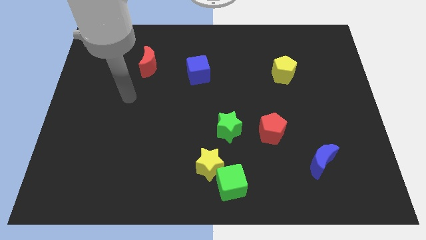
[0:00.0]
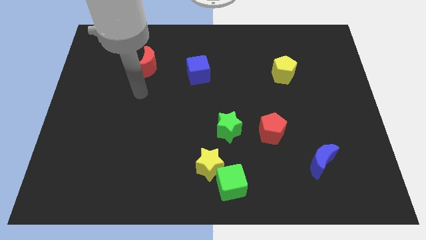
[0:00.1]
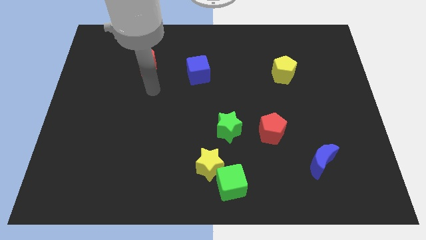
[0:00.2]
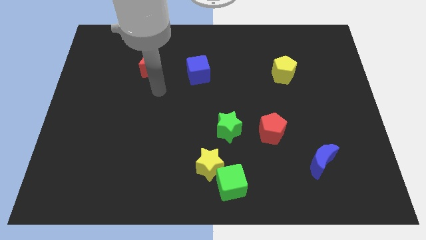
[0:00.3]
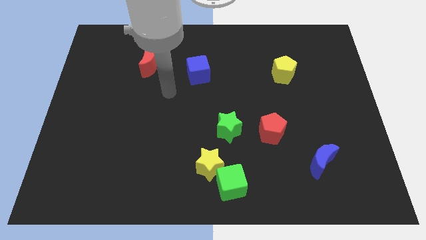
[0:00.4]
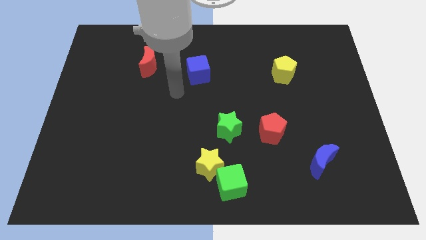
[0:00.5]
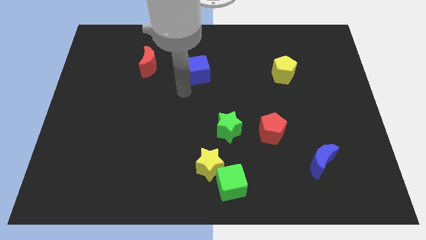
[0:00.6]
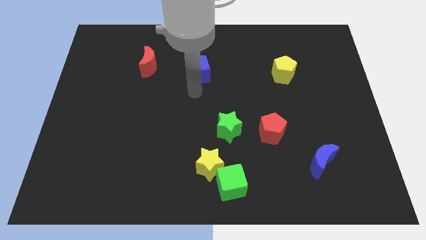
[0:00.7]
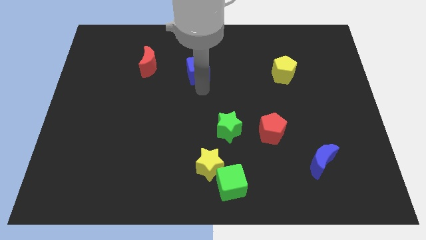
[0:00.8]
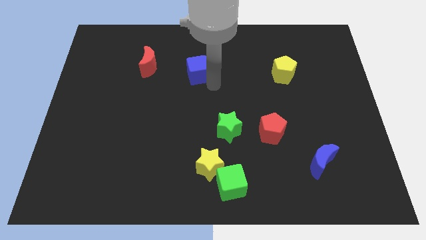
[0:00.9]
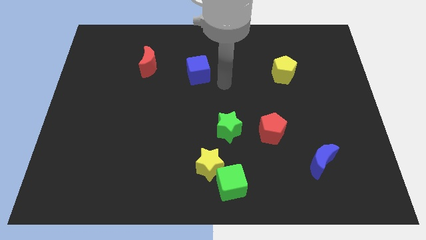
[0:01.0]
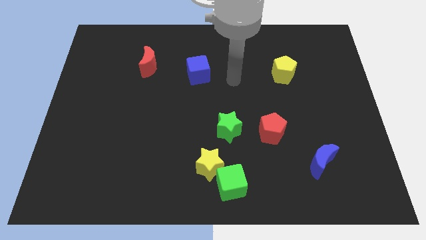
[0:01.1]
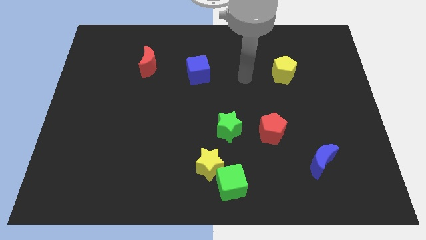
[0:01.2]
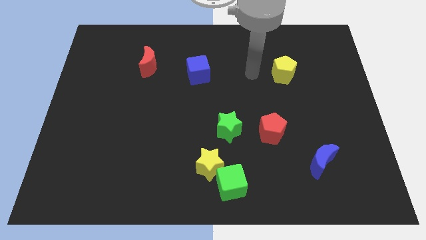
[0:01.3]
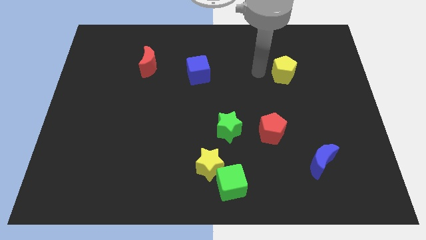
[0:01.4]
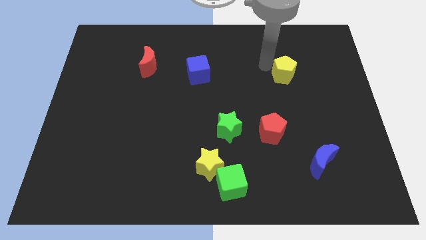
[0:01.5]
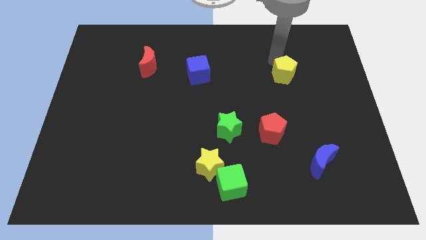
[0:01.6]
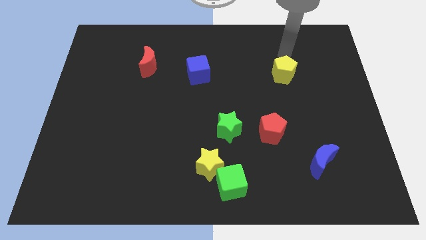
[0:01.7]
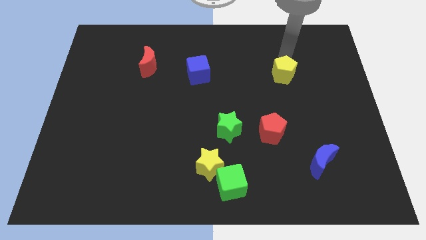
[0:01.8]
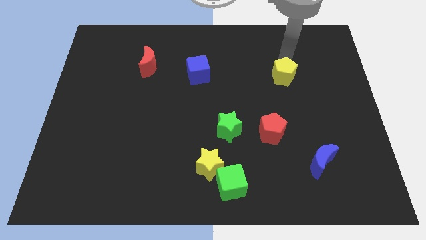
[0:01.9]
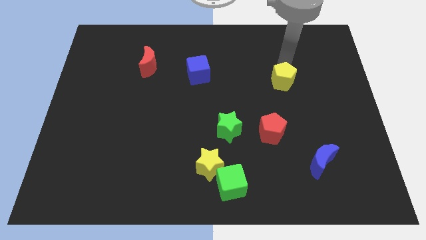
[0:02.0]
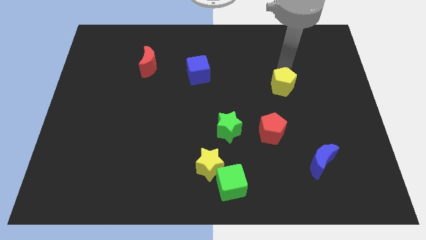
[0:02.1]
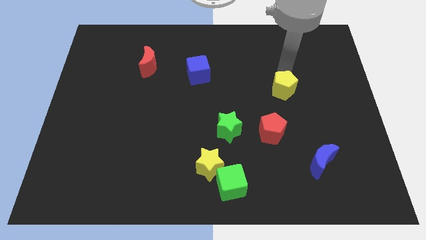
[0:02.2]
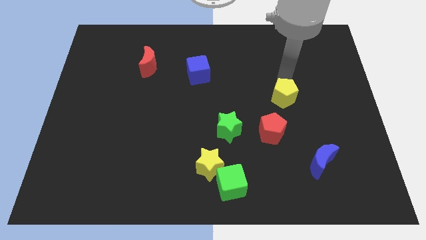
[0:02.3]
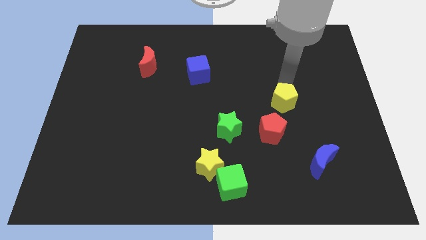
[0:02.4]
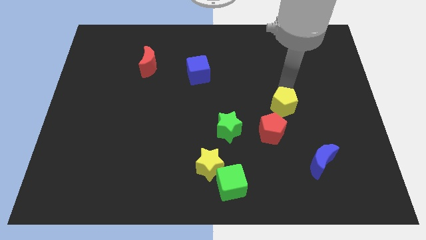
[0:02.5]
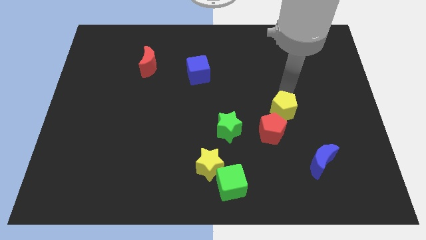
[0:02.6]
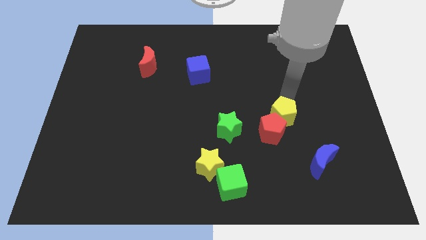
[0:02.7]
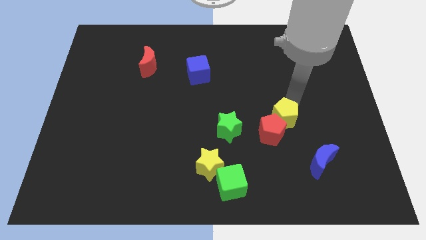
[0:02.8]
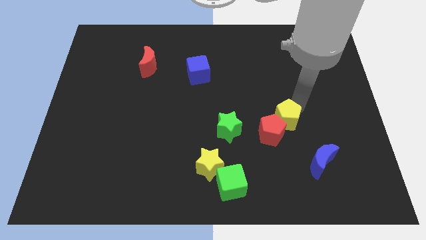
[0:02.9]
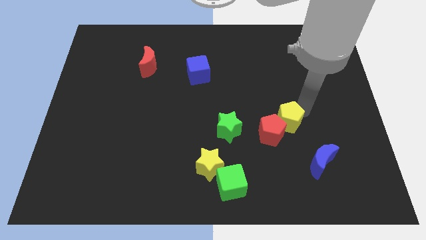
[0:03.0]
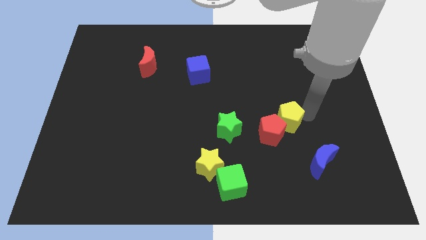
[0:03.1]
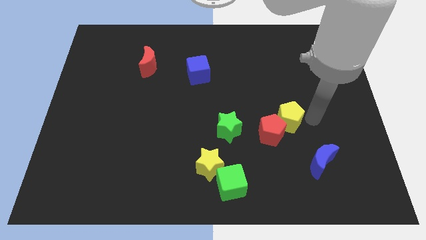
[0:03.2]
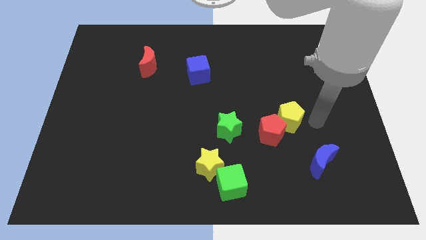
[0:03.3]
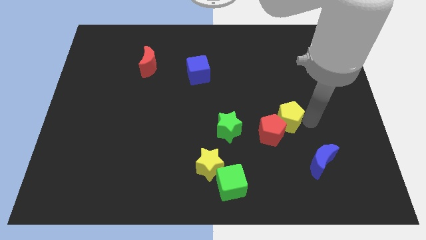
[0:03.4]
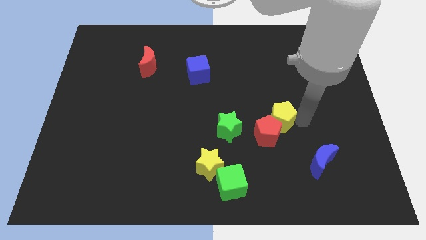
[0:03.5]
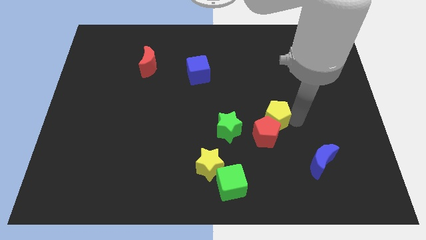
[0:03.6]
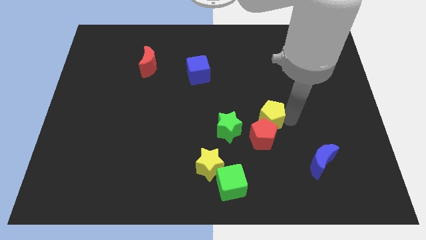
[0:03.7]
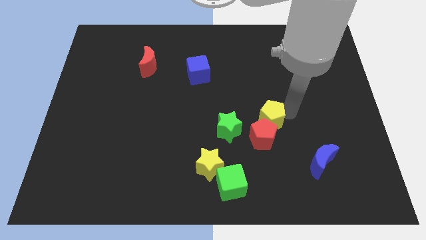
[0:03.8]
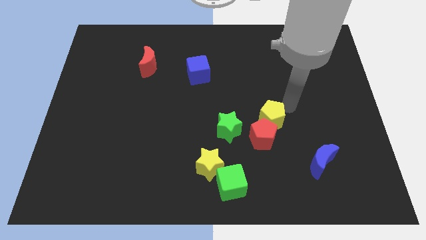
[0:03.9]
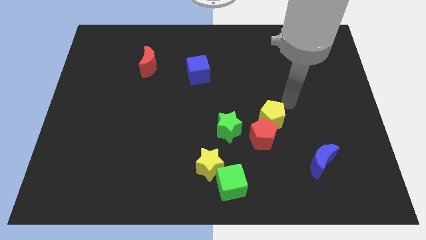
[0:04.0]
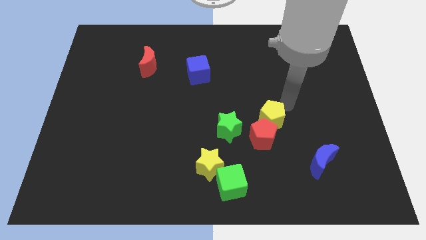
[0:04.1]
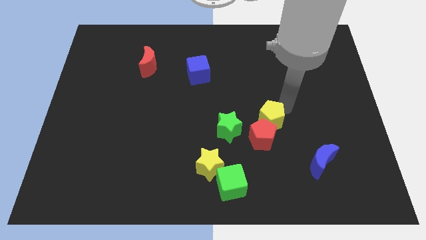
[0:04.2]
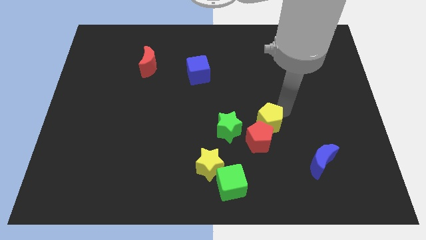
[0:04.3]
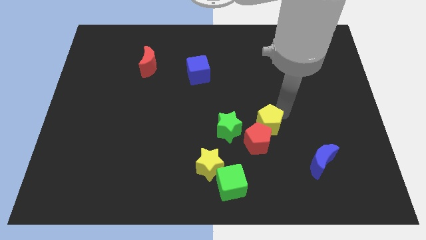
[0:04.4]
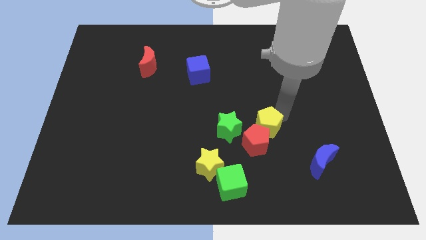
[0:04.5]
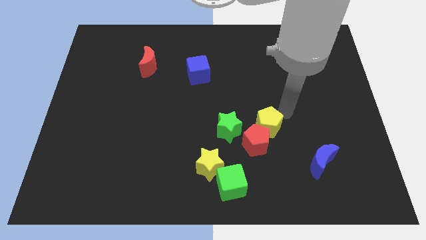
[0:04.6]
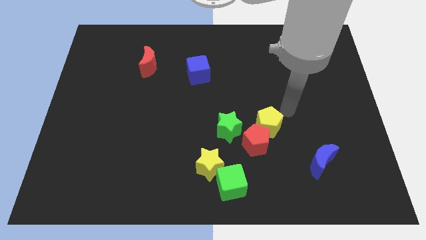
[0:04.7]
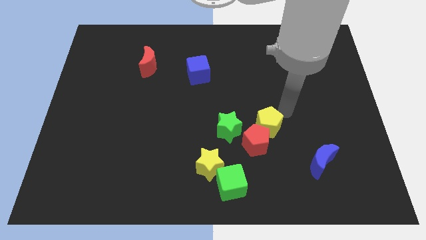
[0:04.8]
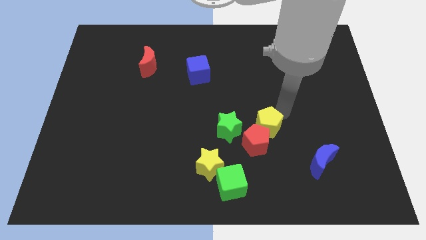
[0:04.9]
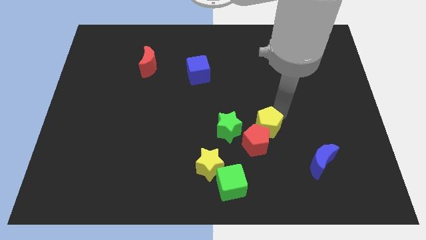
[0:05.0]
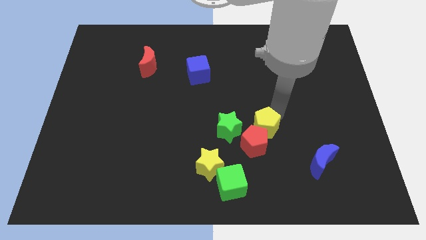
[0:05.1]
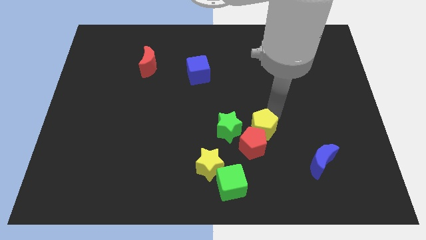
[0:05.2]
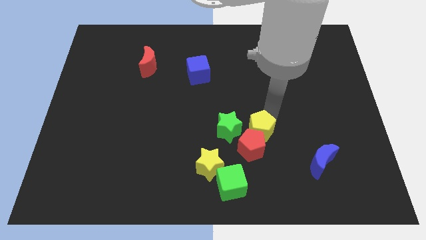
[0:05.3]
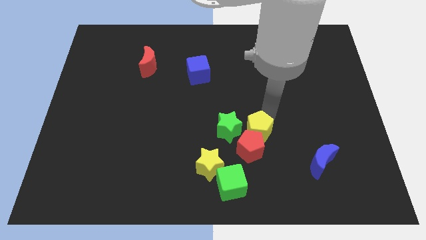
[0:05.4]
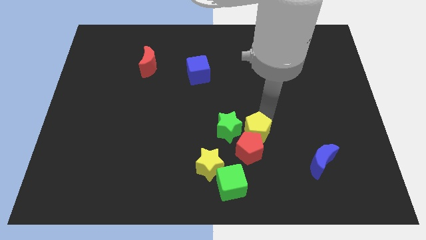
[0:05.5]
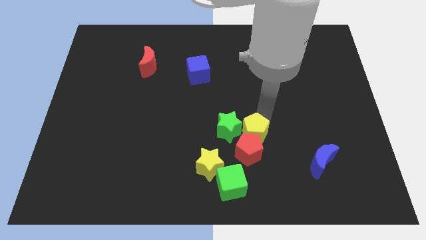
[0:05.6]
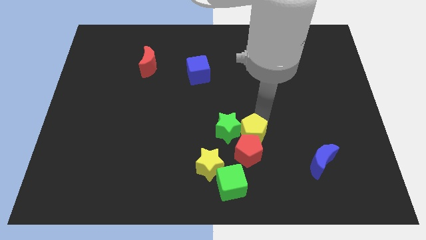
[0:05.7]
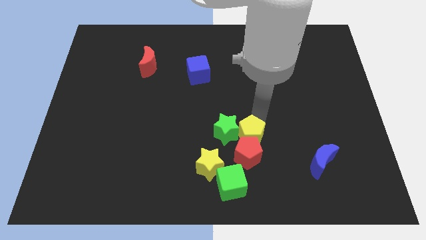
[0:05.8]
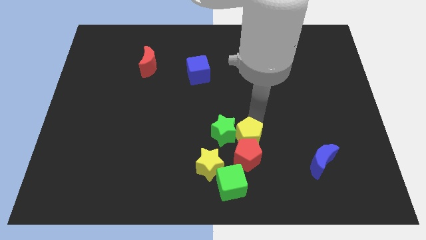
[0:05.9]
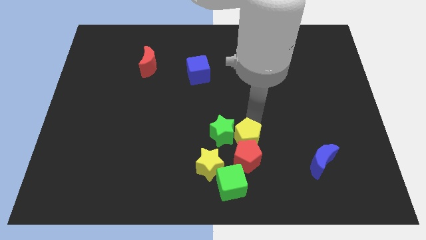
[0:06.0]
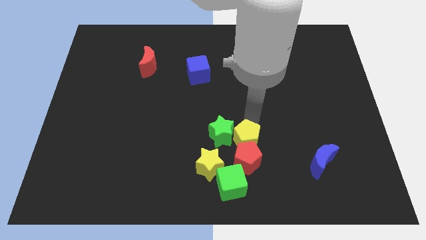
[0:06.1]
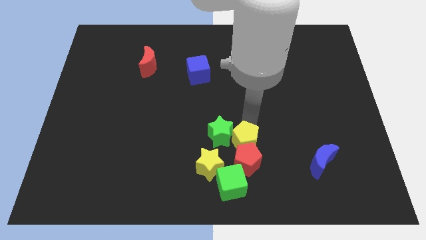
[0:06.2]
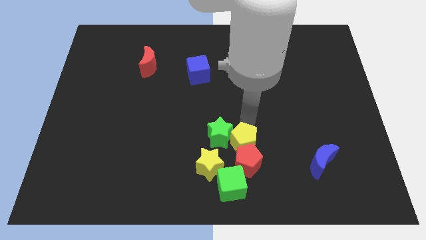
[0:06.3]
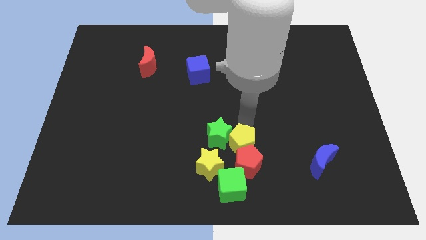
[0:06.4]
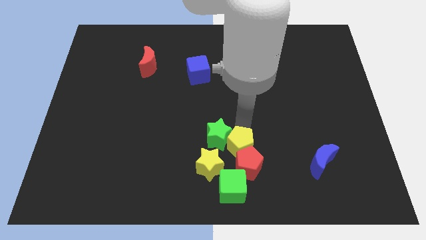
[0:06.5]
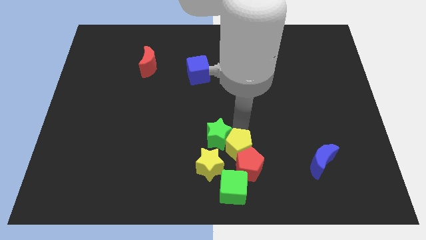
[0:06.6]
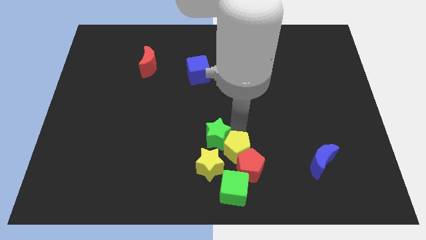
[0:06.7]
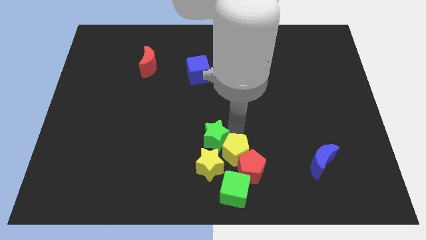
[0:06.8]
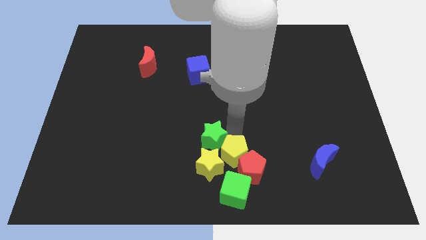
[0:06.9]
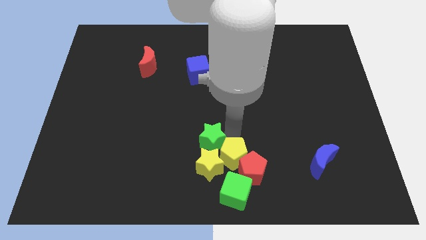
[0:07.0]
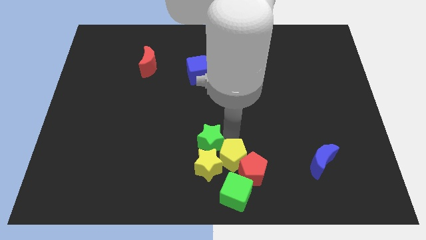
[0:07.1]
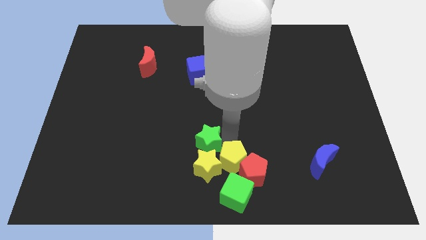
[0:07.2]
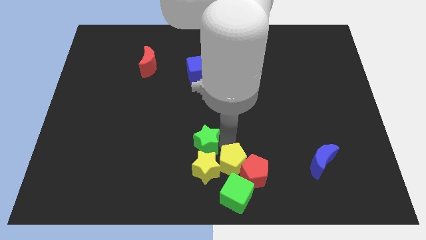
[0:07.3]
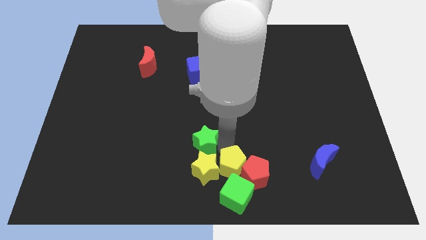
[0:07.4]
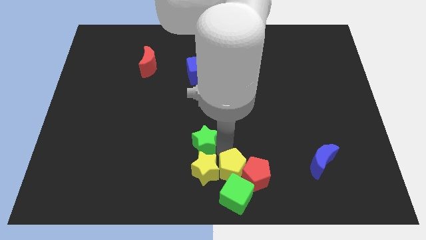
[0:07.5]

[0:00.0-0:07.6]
push the yellow pentagon towards the green cube
